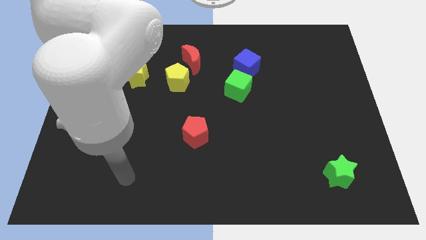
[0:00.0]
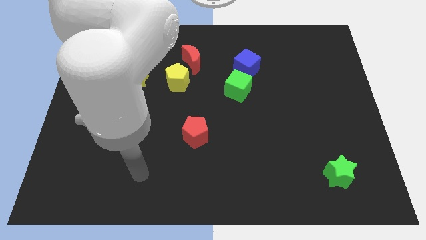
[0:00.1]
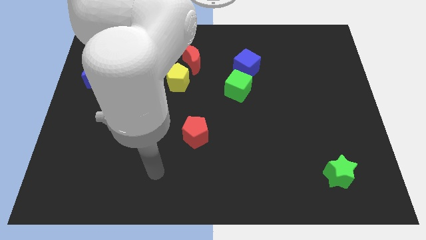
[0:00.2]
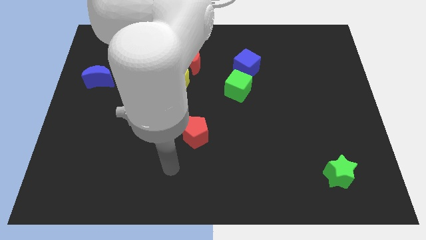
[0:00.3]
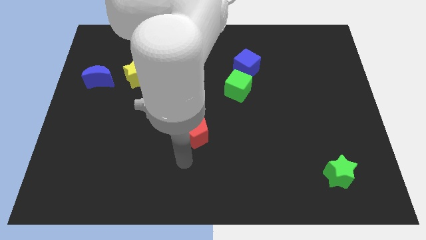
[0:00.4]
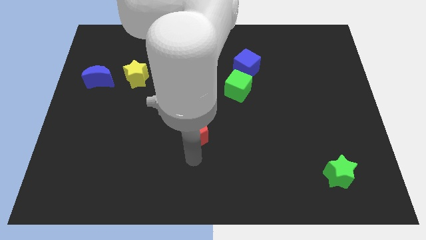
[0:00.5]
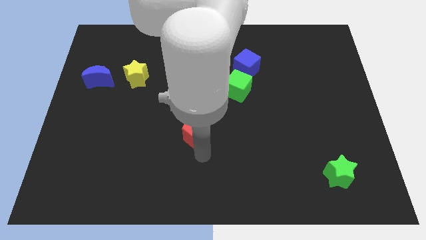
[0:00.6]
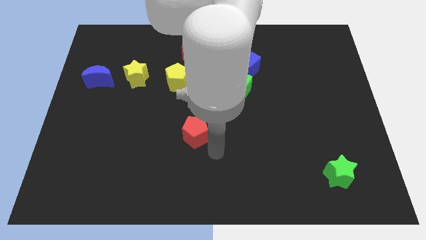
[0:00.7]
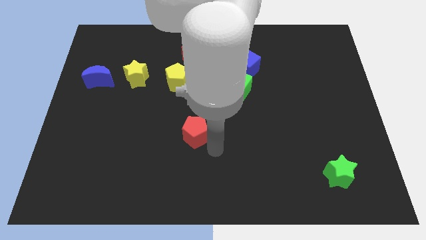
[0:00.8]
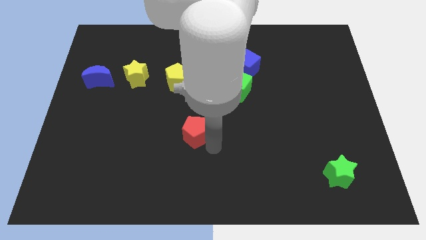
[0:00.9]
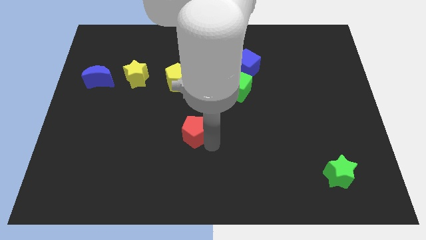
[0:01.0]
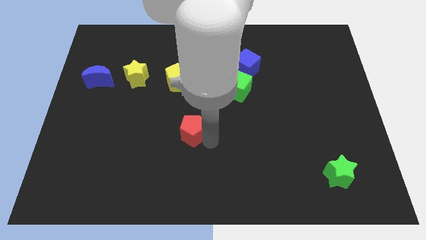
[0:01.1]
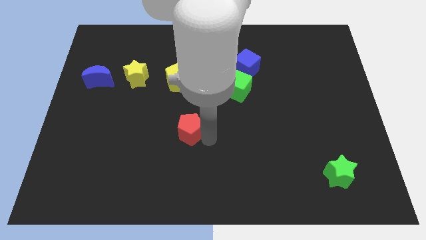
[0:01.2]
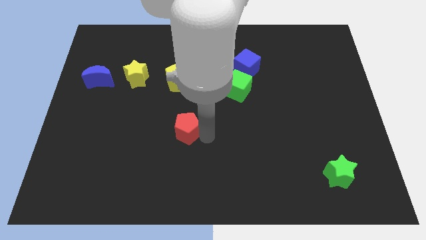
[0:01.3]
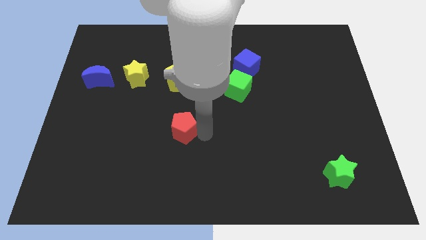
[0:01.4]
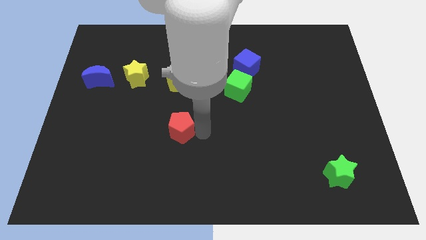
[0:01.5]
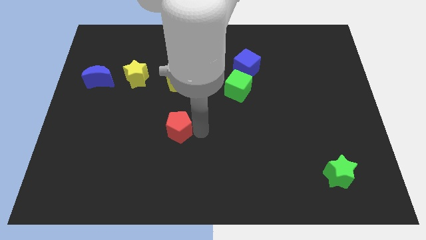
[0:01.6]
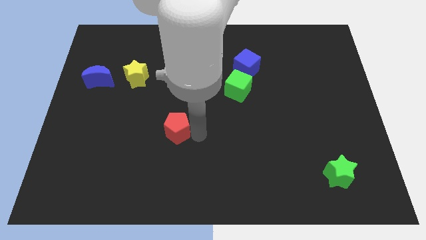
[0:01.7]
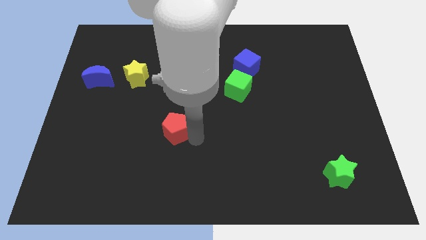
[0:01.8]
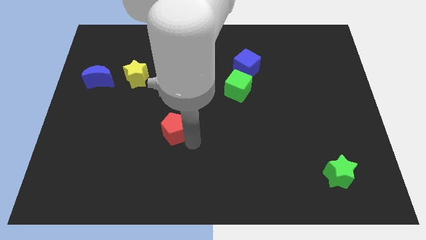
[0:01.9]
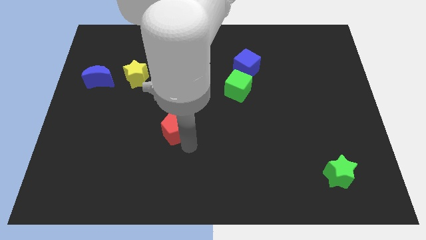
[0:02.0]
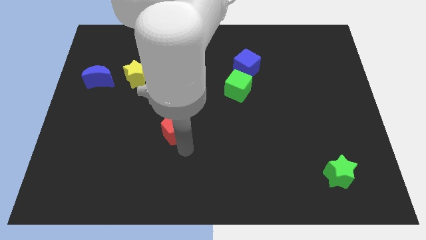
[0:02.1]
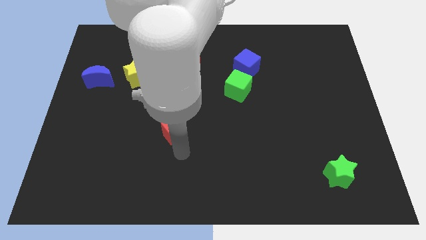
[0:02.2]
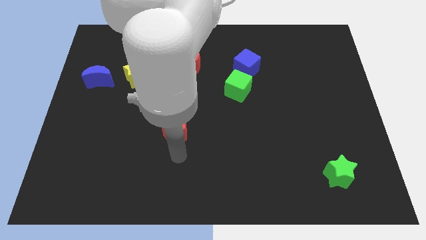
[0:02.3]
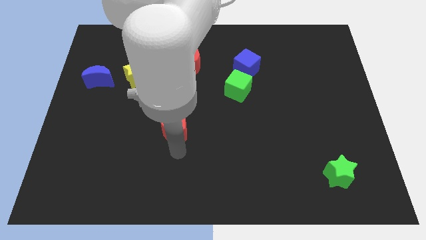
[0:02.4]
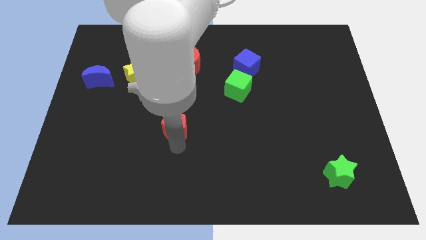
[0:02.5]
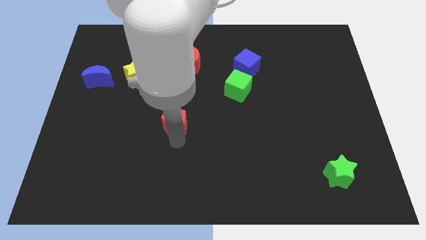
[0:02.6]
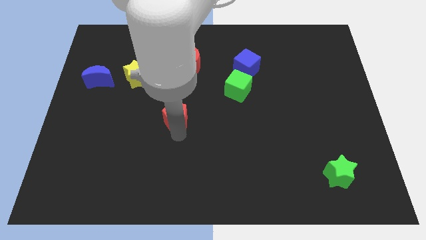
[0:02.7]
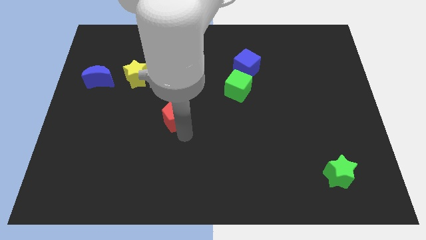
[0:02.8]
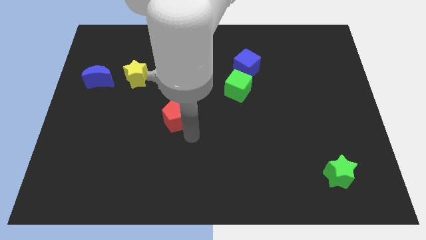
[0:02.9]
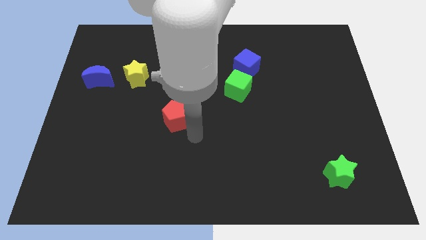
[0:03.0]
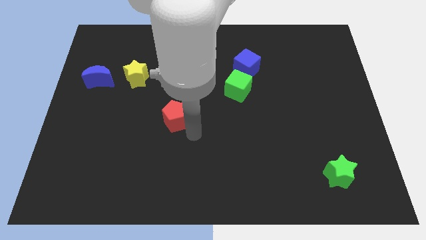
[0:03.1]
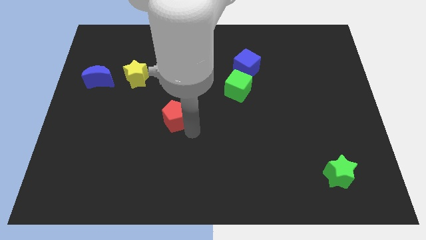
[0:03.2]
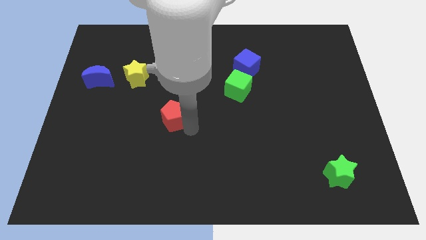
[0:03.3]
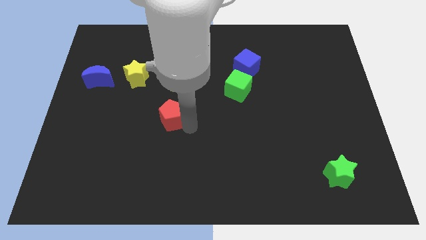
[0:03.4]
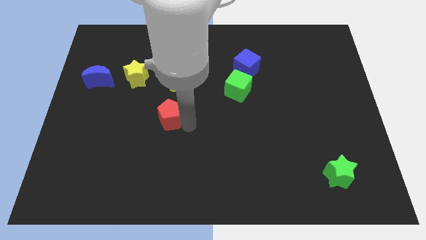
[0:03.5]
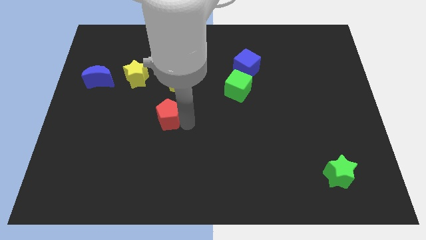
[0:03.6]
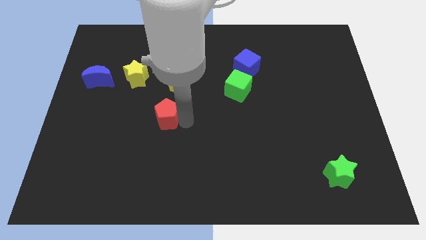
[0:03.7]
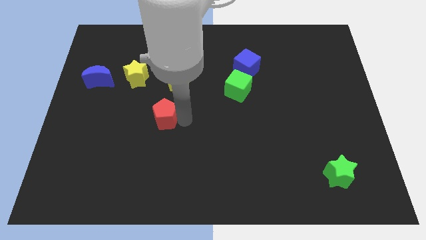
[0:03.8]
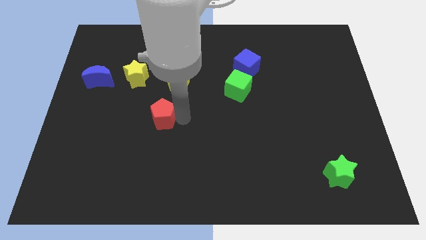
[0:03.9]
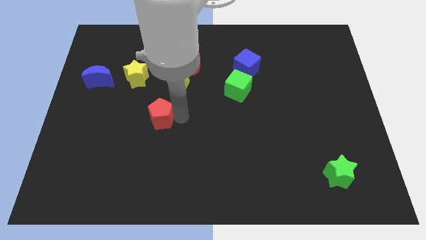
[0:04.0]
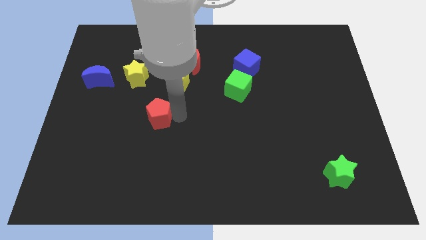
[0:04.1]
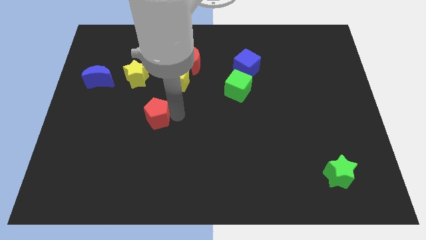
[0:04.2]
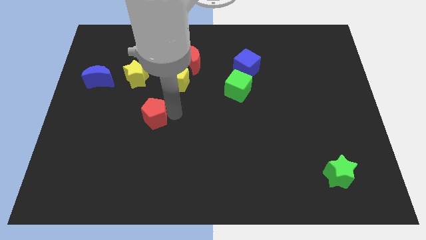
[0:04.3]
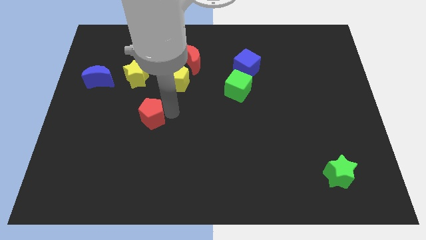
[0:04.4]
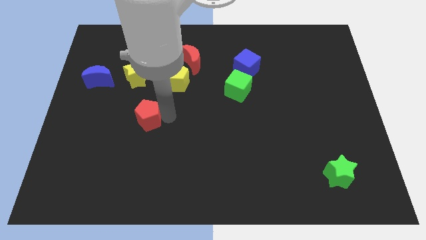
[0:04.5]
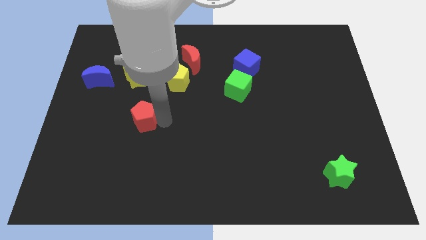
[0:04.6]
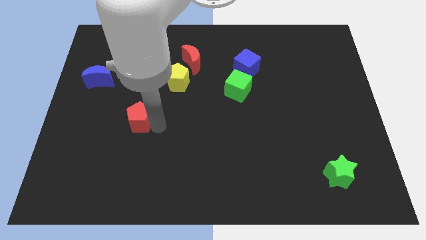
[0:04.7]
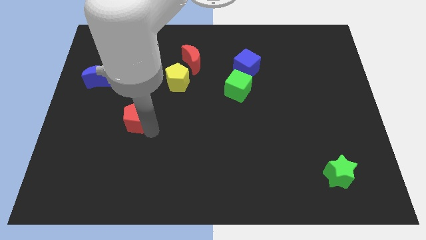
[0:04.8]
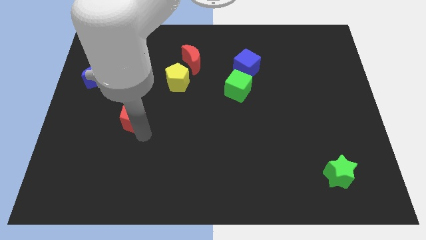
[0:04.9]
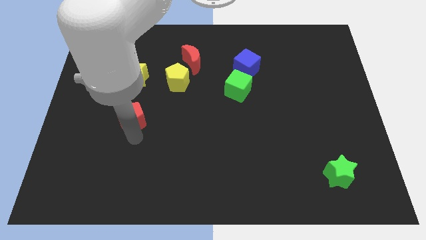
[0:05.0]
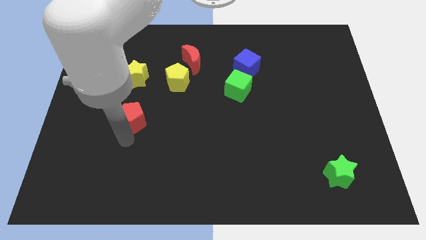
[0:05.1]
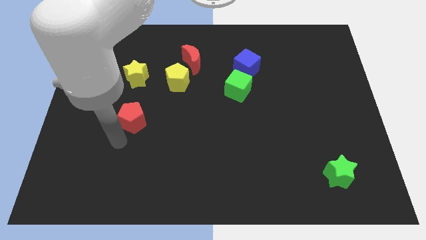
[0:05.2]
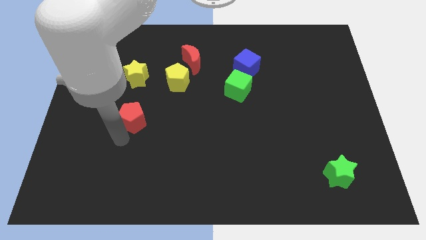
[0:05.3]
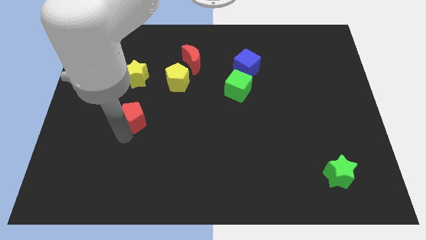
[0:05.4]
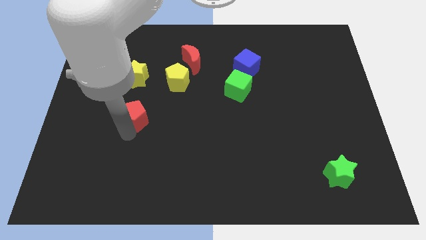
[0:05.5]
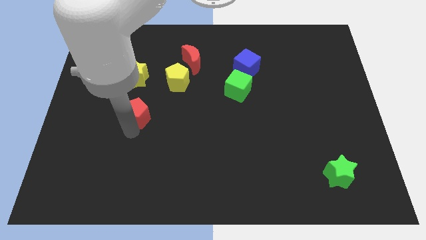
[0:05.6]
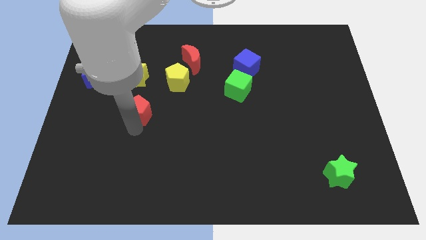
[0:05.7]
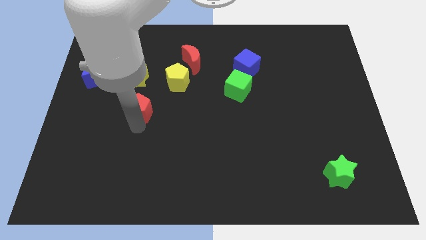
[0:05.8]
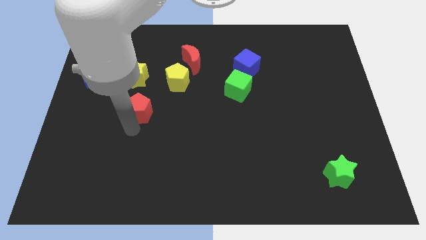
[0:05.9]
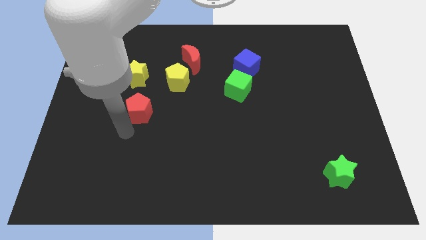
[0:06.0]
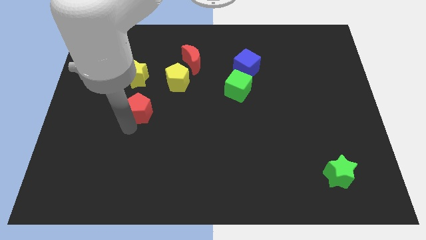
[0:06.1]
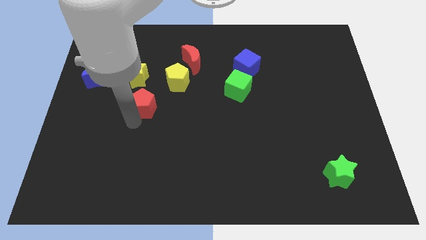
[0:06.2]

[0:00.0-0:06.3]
put the red pentagon to the bottom right of the yellow star

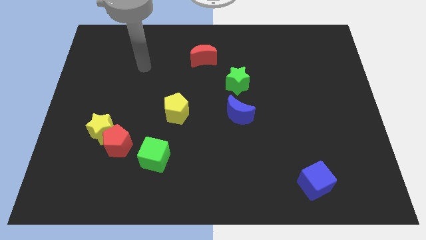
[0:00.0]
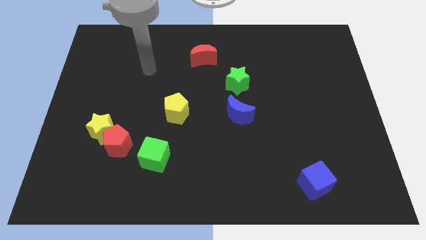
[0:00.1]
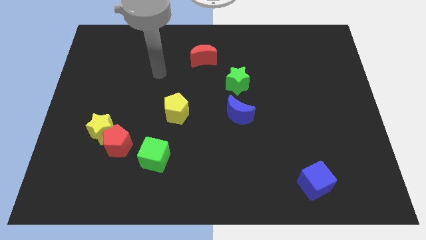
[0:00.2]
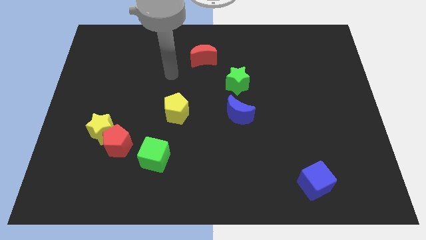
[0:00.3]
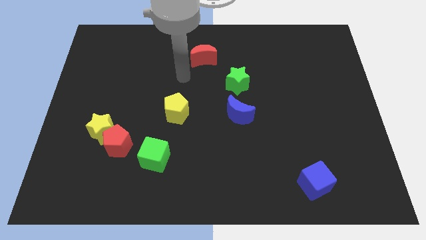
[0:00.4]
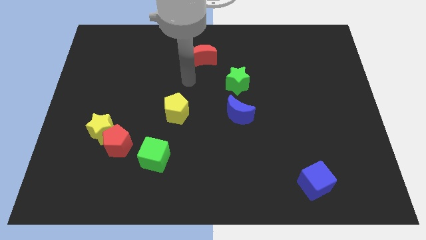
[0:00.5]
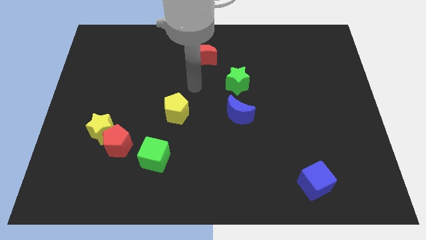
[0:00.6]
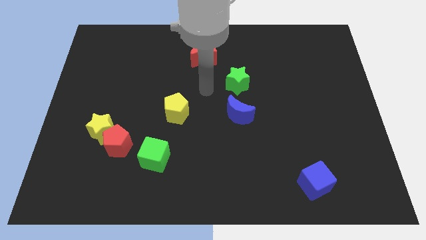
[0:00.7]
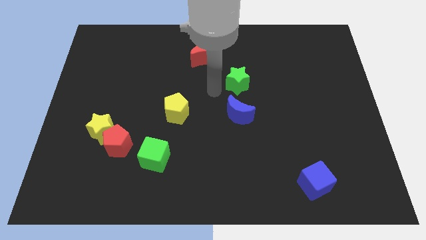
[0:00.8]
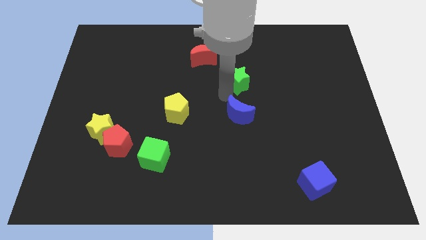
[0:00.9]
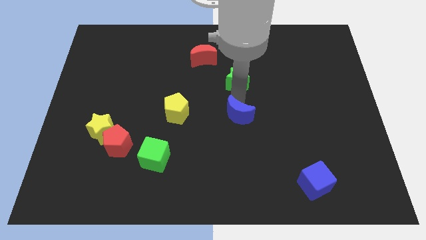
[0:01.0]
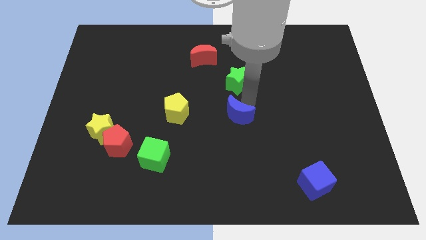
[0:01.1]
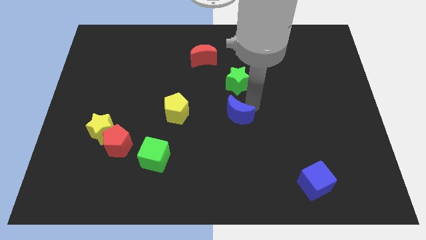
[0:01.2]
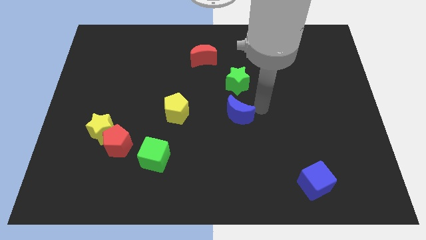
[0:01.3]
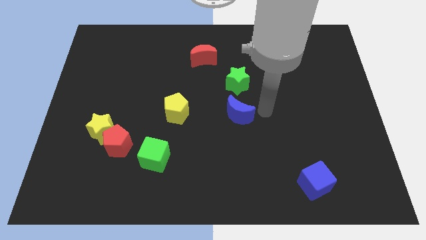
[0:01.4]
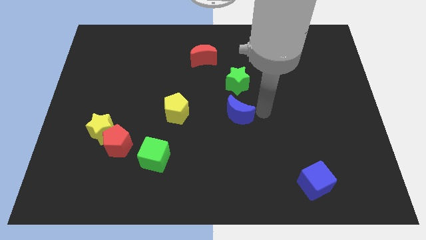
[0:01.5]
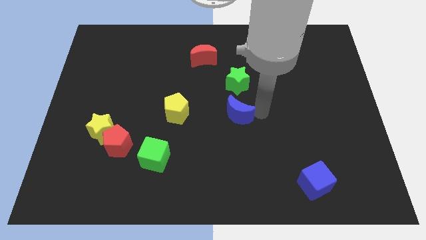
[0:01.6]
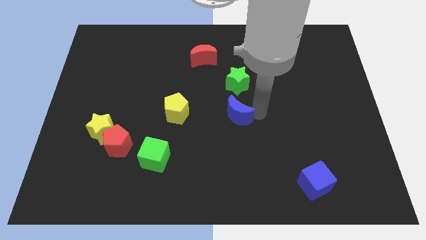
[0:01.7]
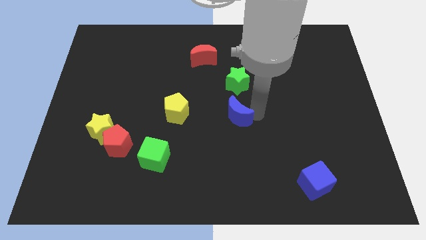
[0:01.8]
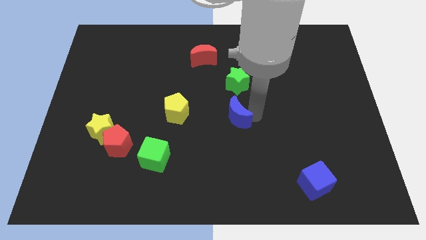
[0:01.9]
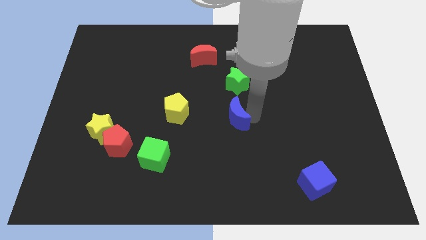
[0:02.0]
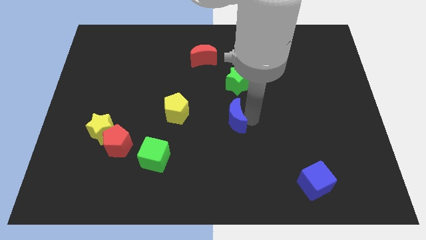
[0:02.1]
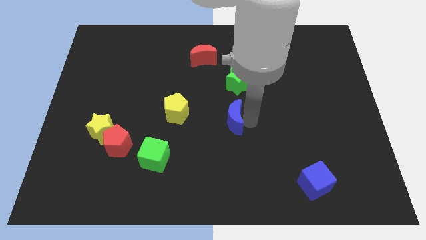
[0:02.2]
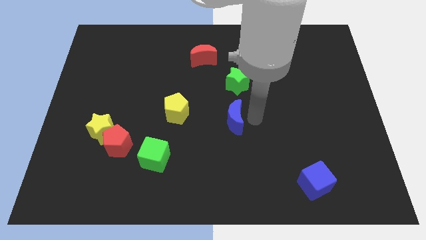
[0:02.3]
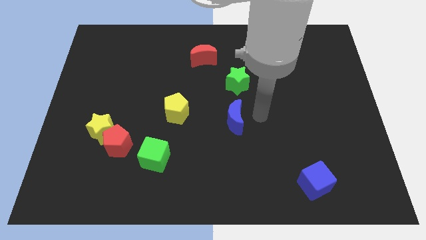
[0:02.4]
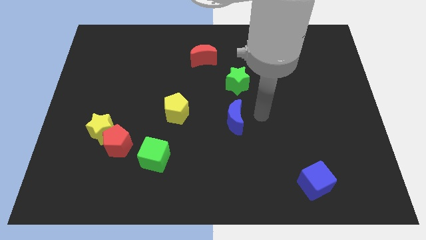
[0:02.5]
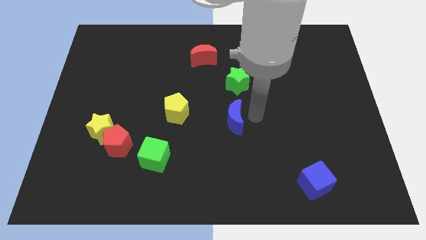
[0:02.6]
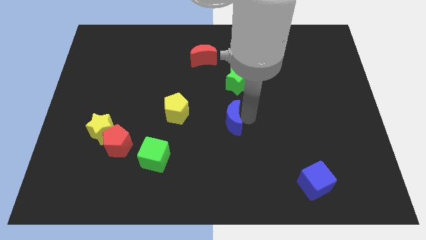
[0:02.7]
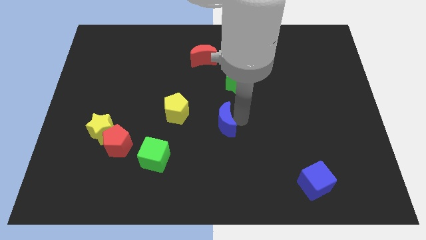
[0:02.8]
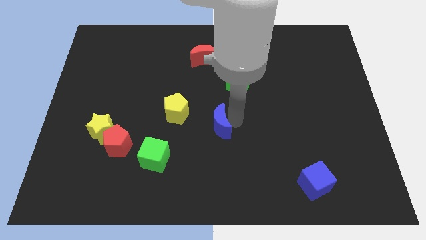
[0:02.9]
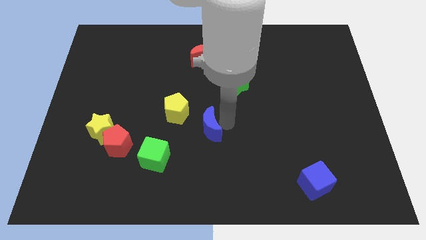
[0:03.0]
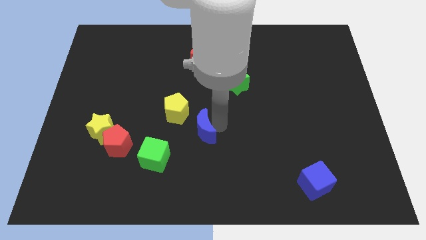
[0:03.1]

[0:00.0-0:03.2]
put the blue moon diagonally up and to the right of the green cube
